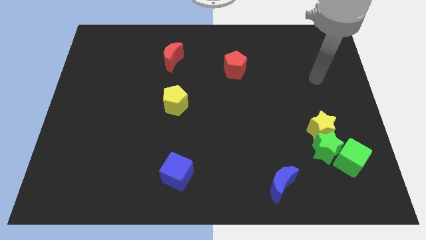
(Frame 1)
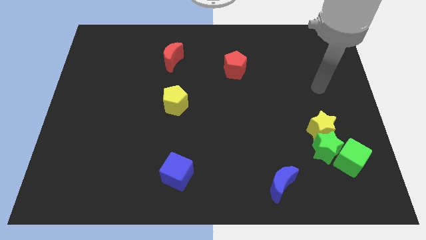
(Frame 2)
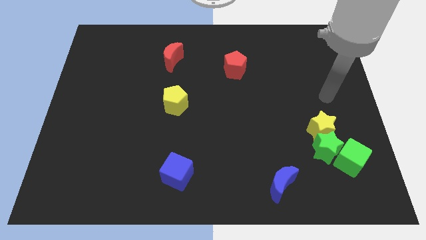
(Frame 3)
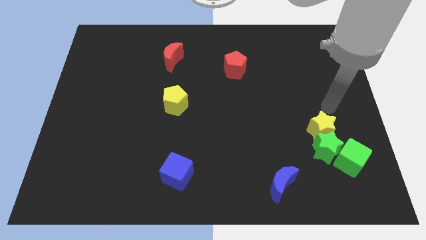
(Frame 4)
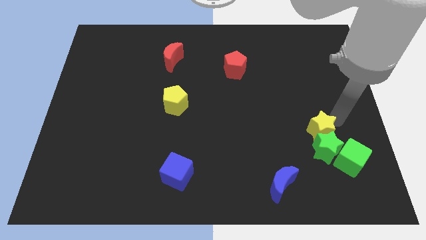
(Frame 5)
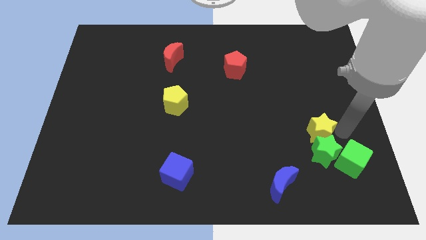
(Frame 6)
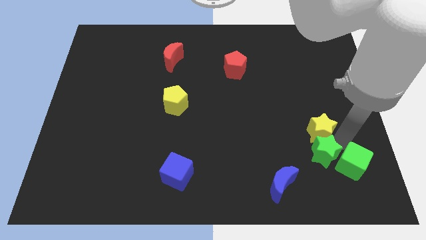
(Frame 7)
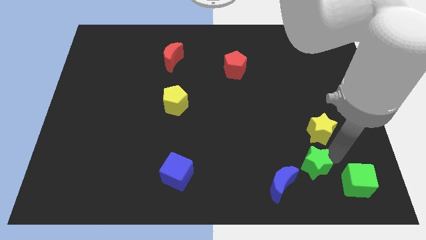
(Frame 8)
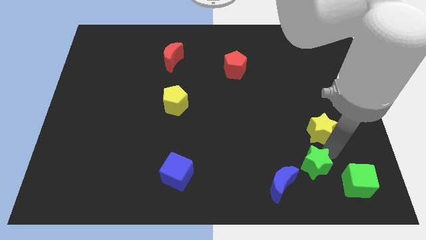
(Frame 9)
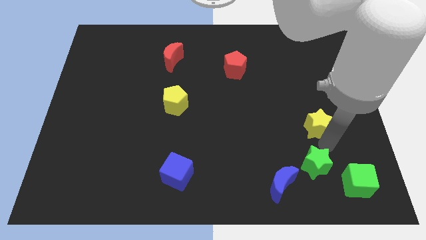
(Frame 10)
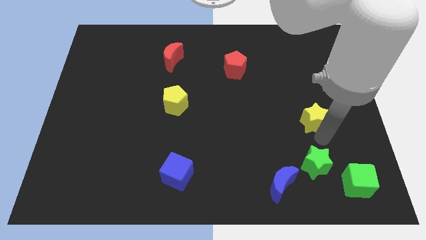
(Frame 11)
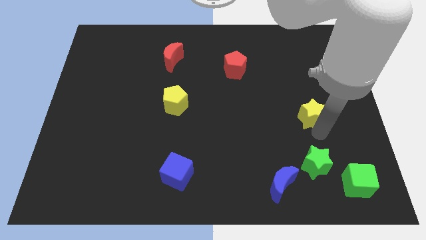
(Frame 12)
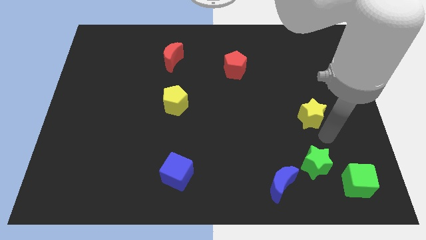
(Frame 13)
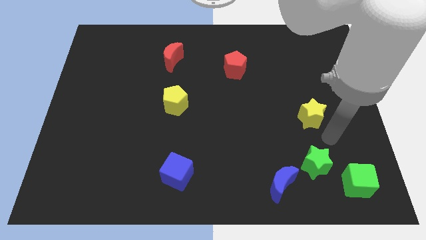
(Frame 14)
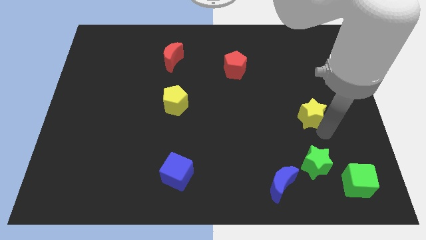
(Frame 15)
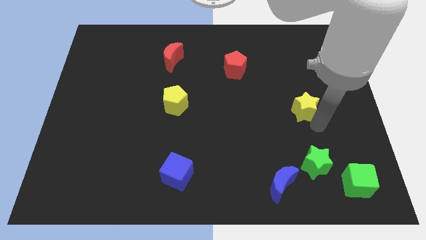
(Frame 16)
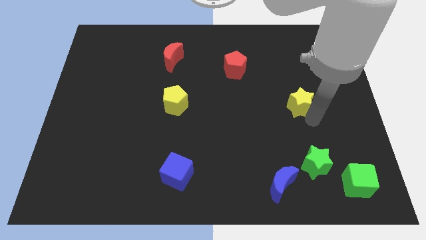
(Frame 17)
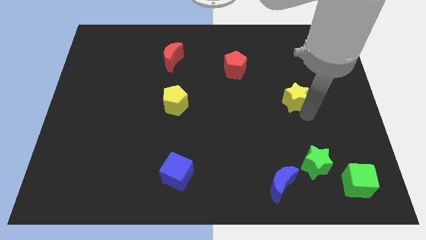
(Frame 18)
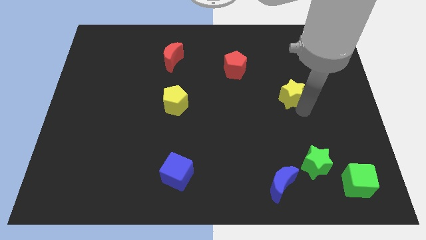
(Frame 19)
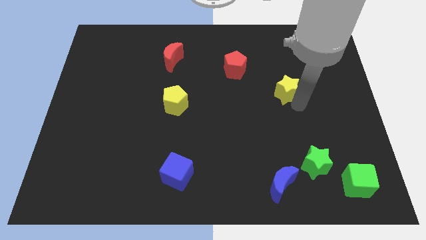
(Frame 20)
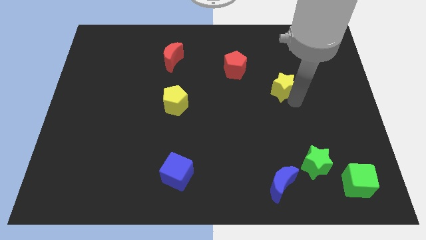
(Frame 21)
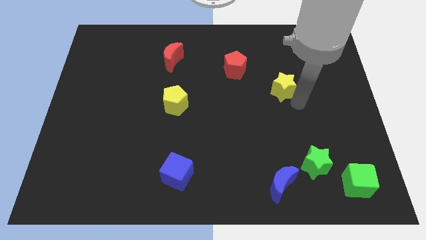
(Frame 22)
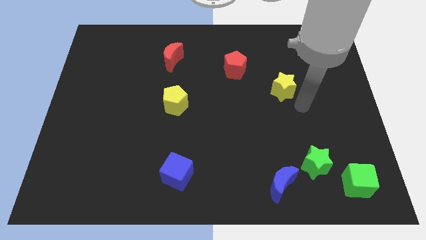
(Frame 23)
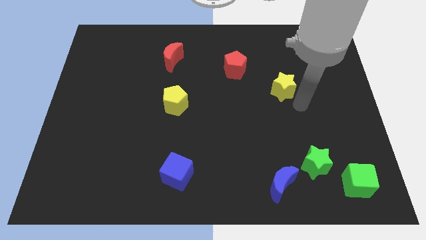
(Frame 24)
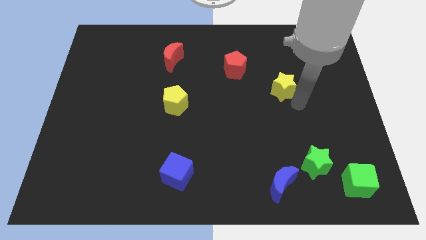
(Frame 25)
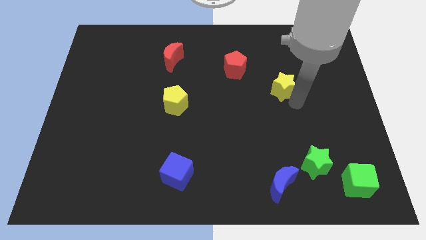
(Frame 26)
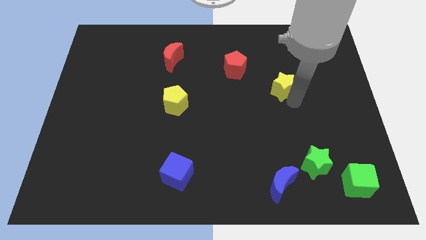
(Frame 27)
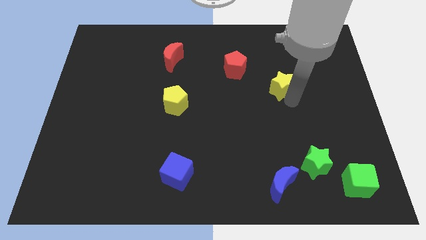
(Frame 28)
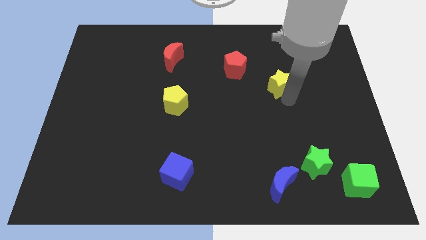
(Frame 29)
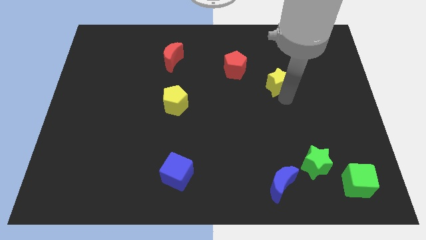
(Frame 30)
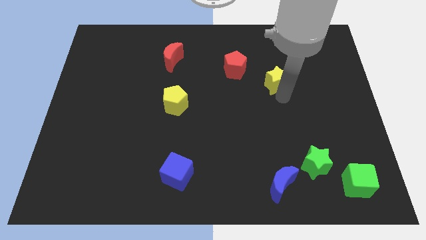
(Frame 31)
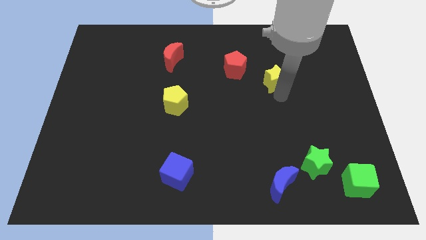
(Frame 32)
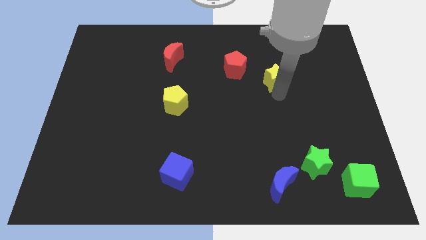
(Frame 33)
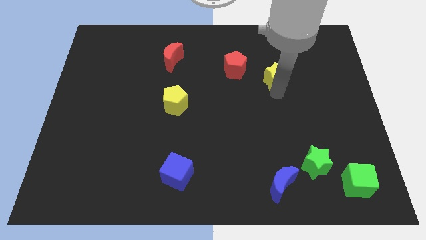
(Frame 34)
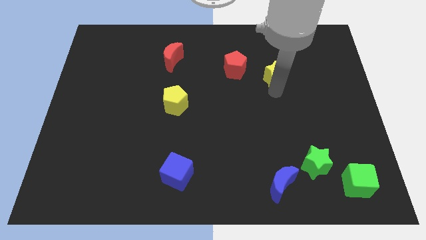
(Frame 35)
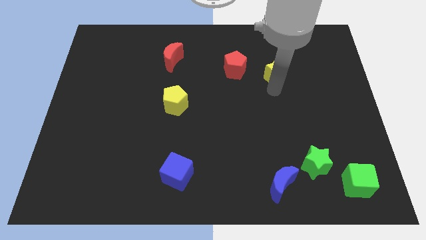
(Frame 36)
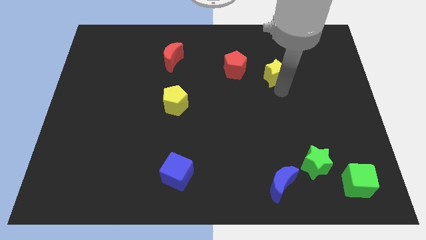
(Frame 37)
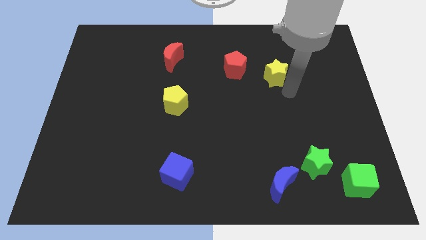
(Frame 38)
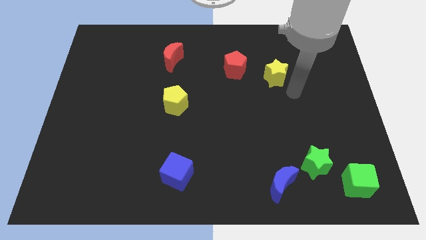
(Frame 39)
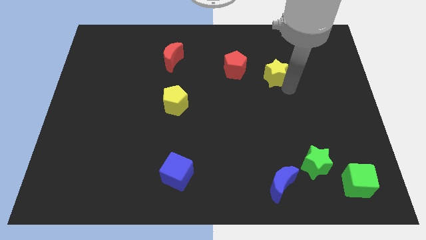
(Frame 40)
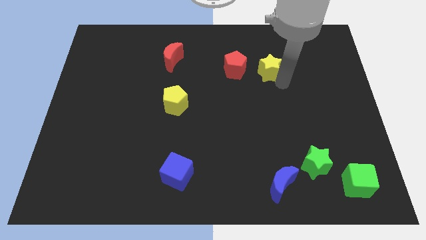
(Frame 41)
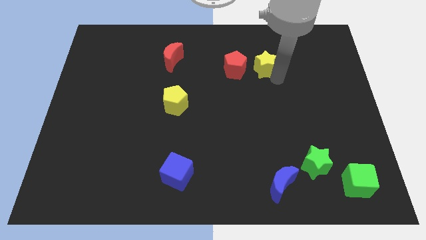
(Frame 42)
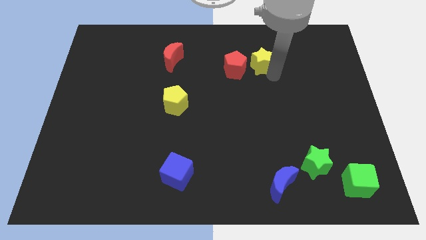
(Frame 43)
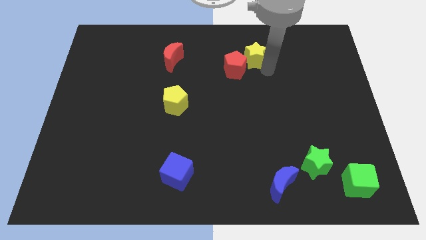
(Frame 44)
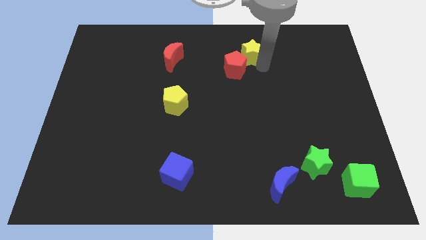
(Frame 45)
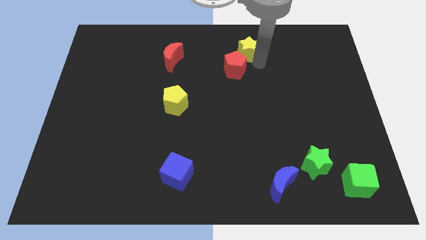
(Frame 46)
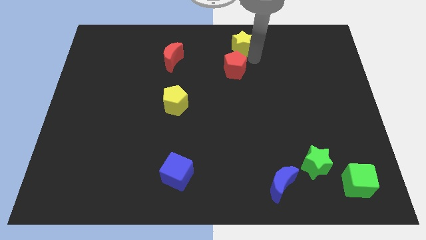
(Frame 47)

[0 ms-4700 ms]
move the yellow star to the top side

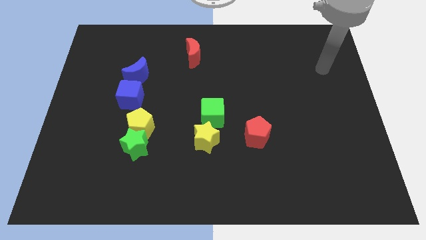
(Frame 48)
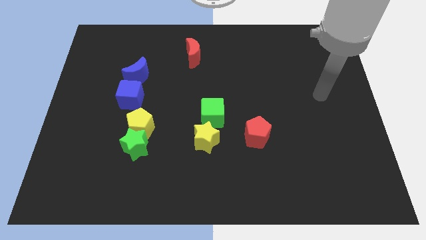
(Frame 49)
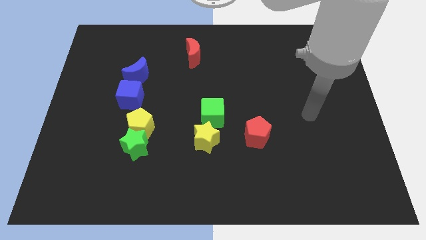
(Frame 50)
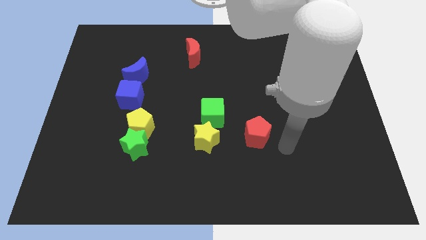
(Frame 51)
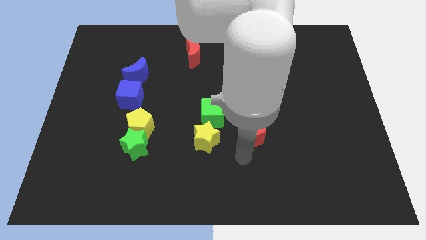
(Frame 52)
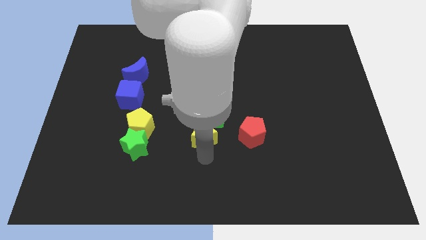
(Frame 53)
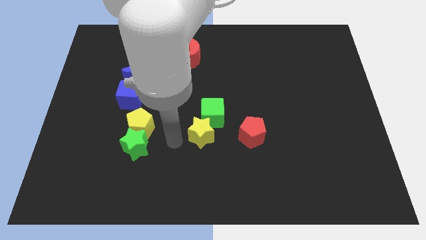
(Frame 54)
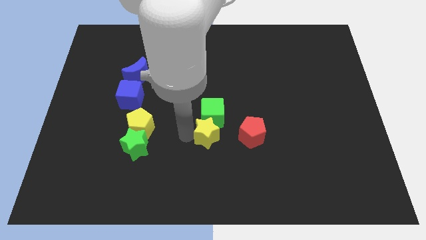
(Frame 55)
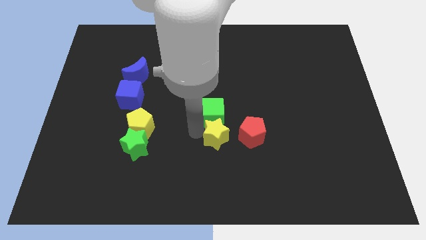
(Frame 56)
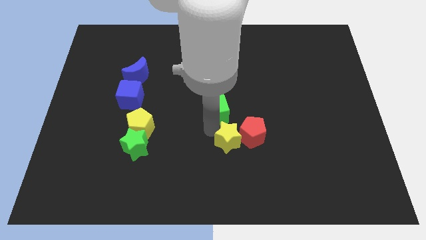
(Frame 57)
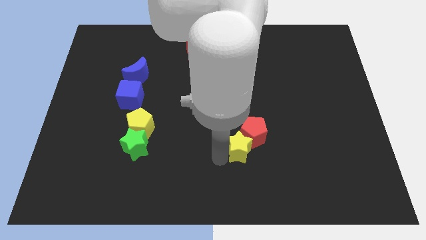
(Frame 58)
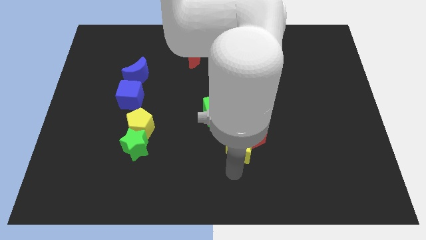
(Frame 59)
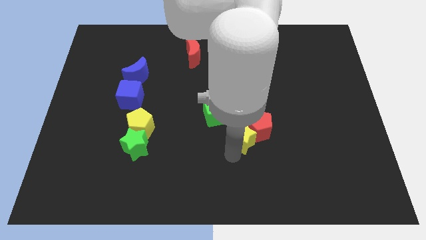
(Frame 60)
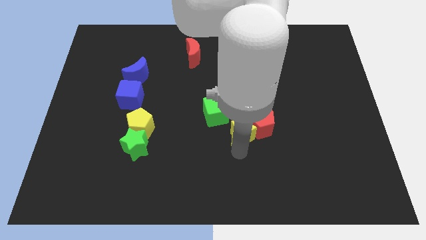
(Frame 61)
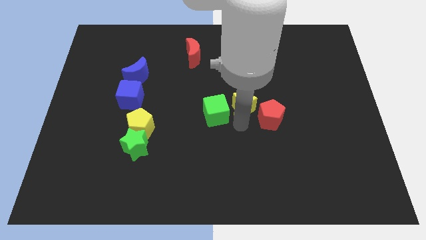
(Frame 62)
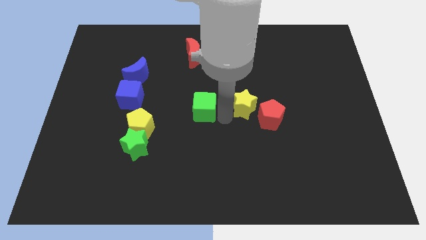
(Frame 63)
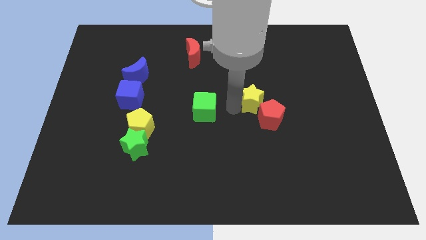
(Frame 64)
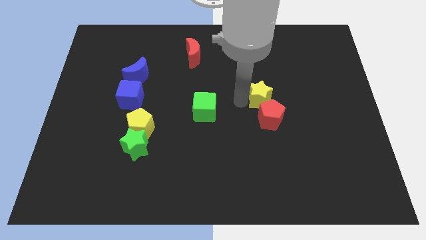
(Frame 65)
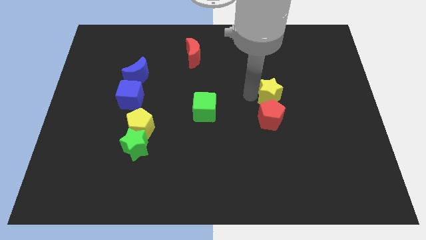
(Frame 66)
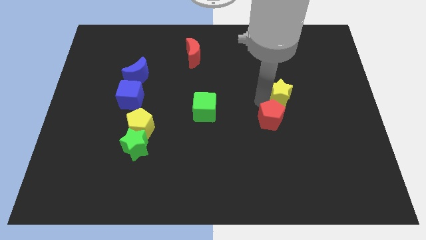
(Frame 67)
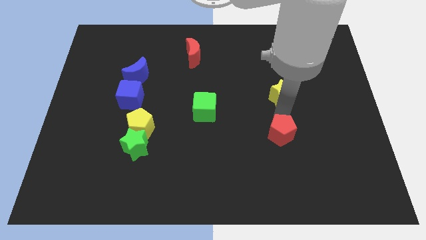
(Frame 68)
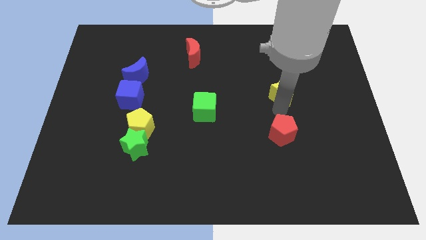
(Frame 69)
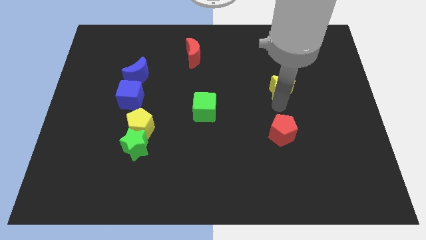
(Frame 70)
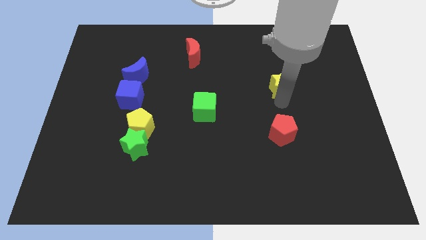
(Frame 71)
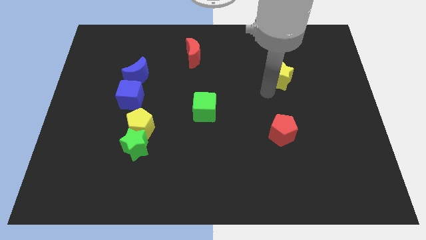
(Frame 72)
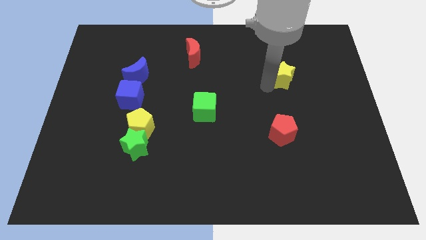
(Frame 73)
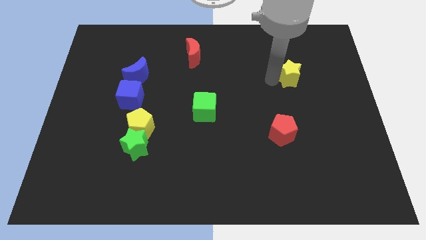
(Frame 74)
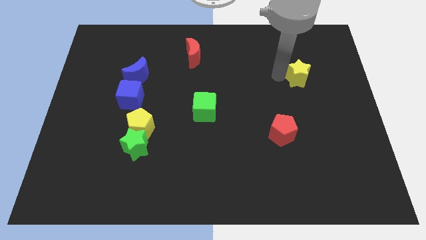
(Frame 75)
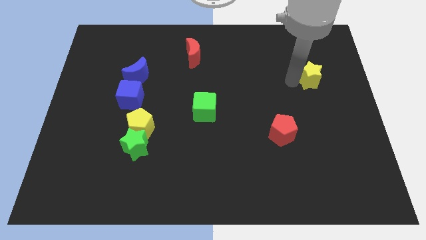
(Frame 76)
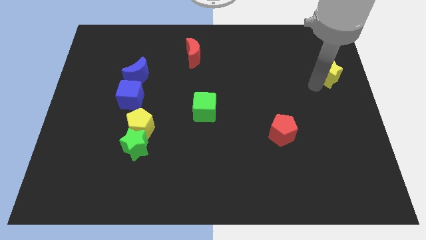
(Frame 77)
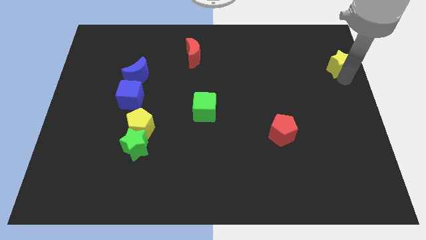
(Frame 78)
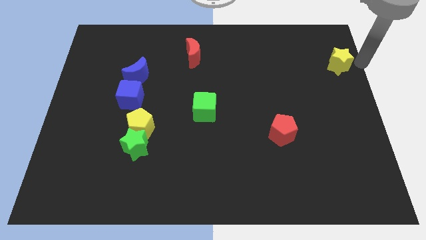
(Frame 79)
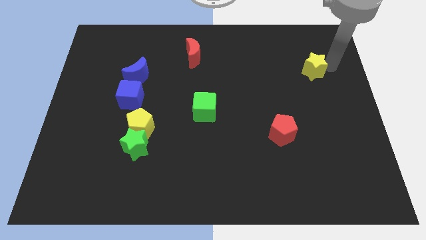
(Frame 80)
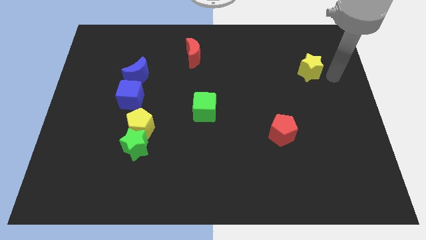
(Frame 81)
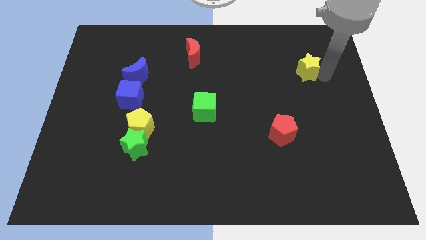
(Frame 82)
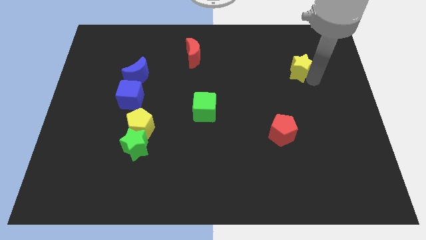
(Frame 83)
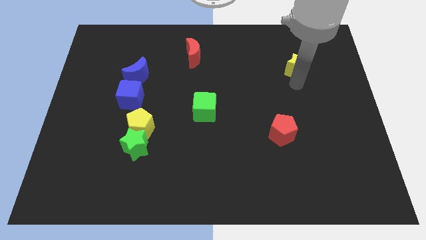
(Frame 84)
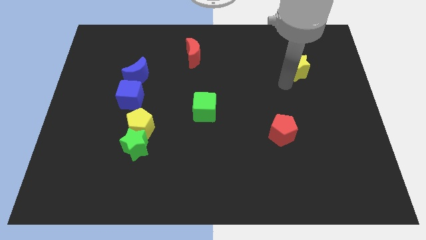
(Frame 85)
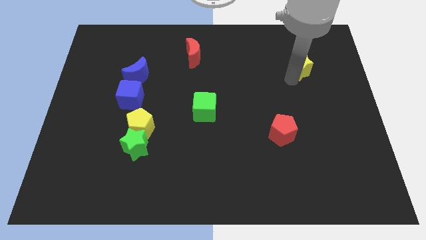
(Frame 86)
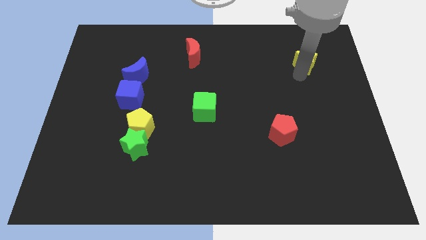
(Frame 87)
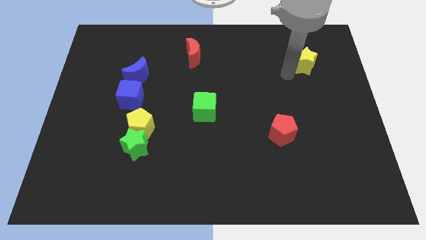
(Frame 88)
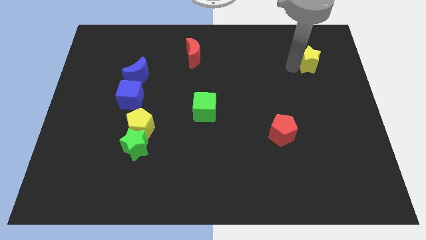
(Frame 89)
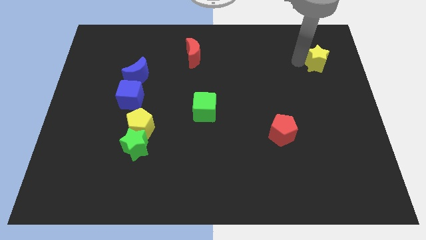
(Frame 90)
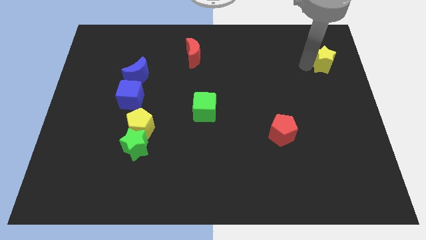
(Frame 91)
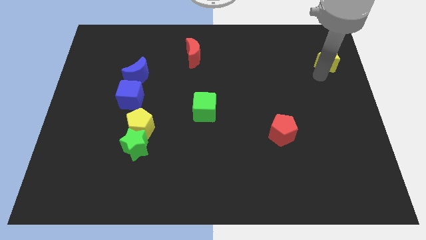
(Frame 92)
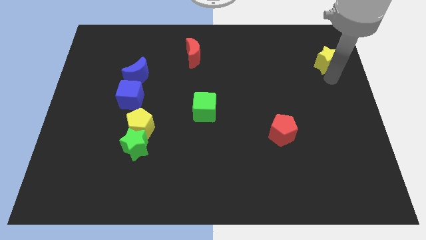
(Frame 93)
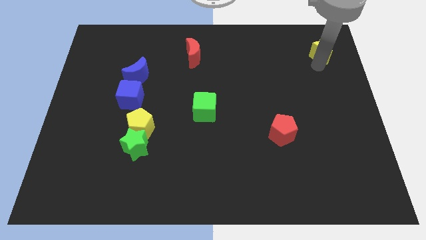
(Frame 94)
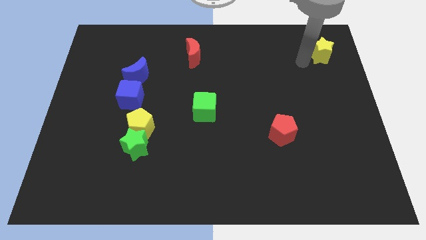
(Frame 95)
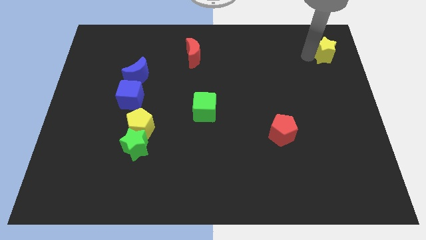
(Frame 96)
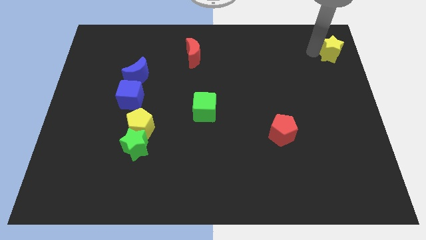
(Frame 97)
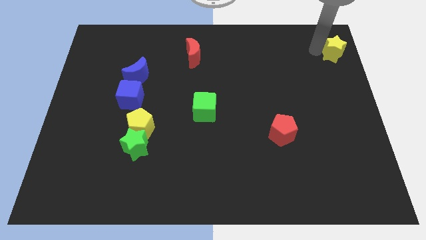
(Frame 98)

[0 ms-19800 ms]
put the yellow star to the top right corner
